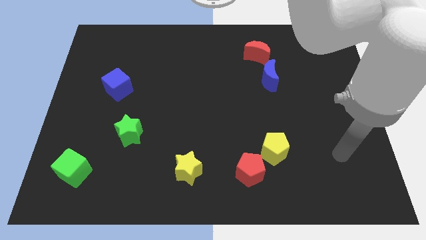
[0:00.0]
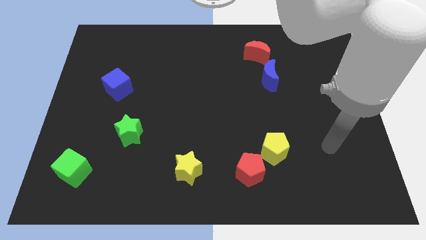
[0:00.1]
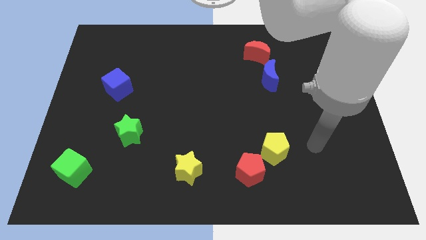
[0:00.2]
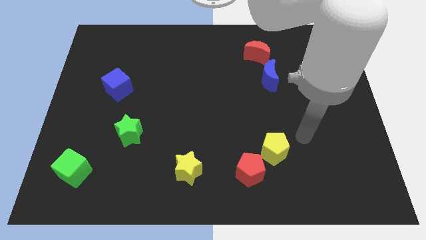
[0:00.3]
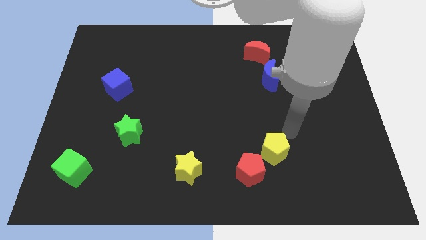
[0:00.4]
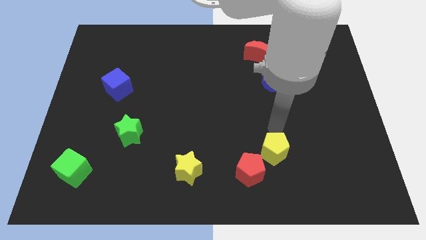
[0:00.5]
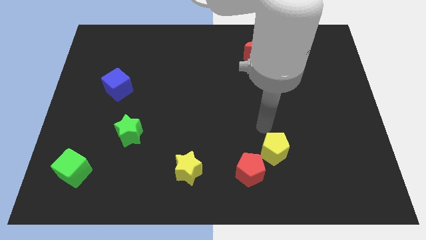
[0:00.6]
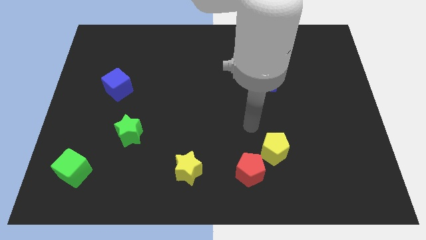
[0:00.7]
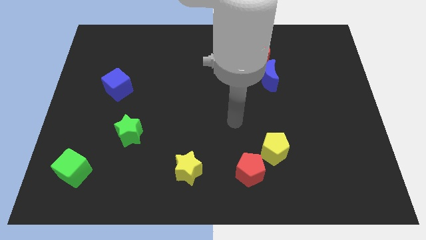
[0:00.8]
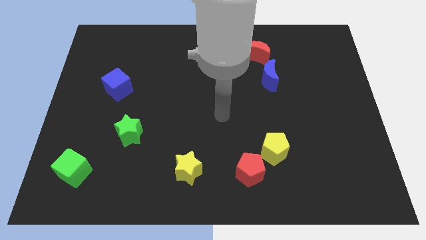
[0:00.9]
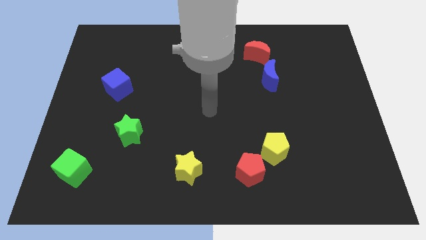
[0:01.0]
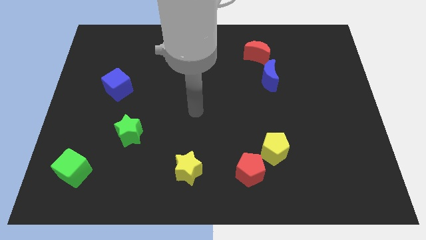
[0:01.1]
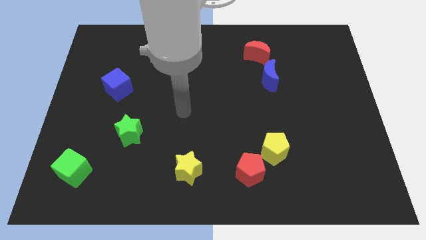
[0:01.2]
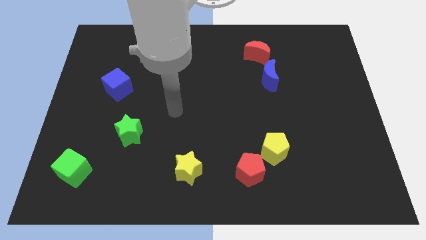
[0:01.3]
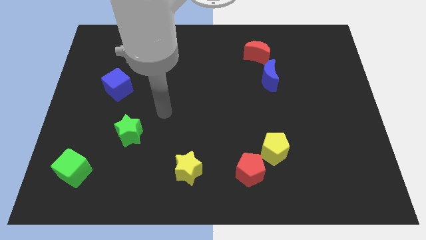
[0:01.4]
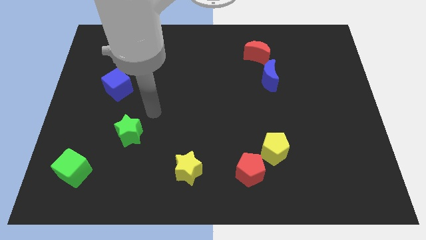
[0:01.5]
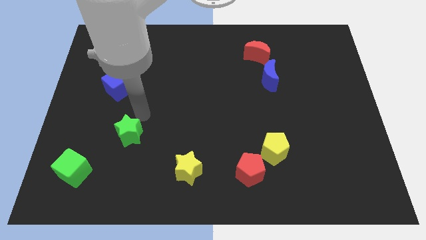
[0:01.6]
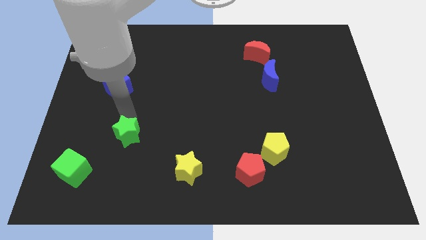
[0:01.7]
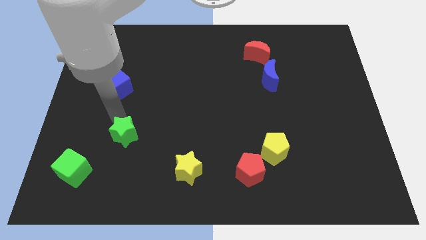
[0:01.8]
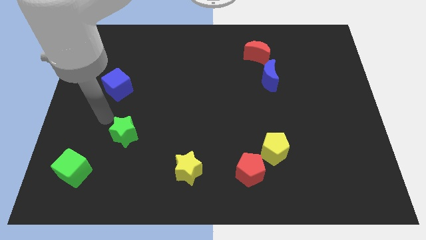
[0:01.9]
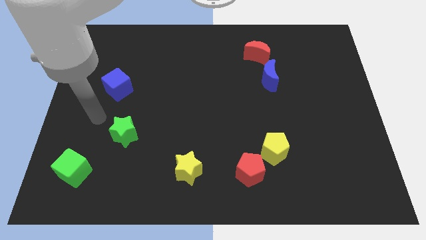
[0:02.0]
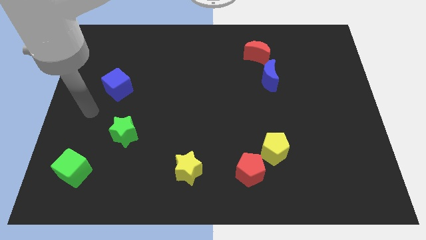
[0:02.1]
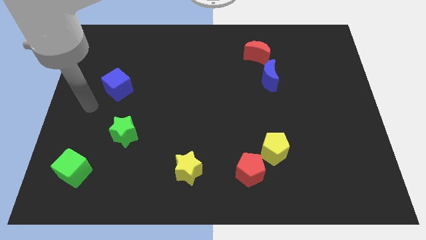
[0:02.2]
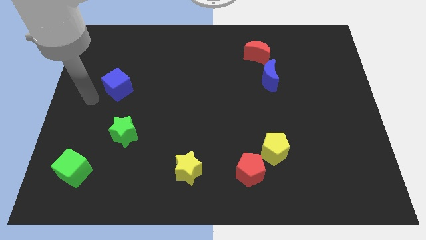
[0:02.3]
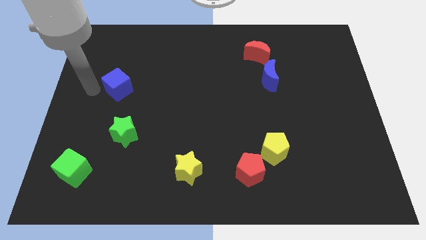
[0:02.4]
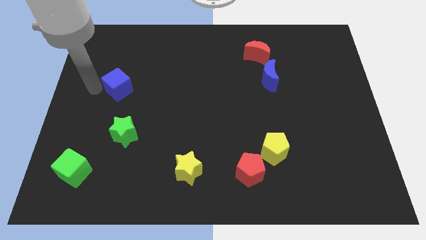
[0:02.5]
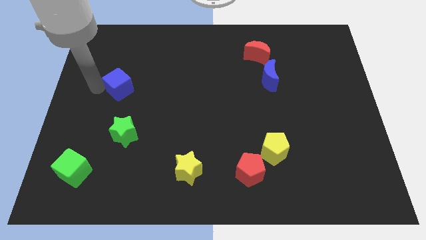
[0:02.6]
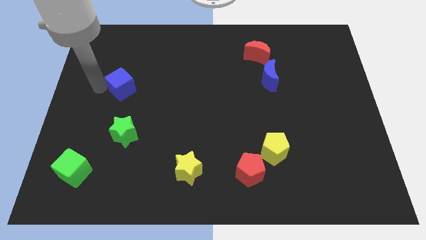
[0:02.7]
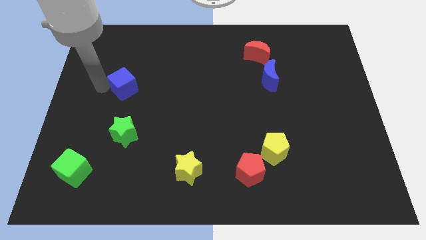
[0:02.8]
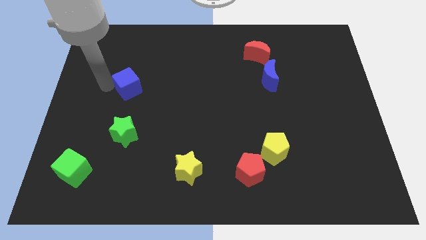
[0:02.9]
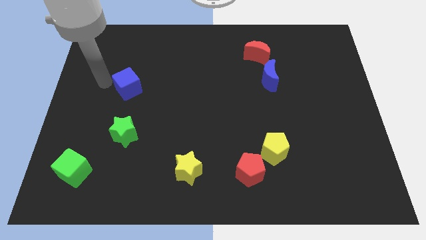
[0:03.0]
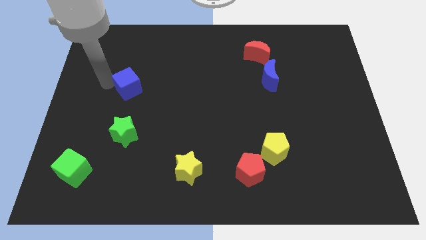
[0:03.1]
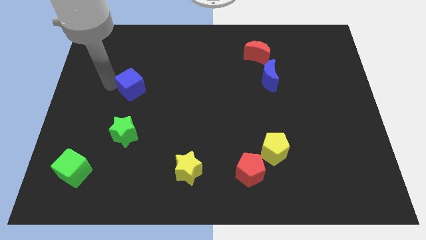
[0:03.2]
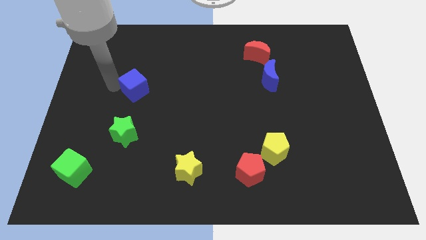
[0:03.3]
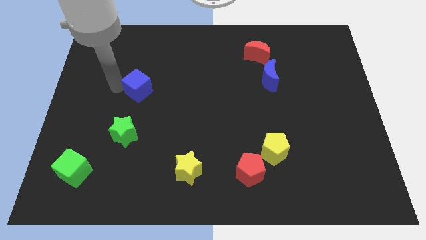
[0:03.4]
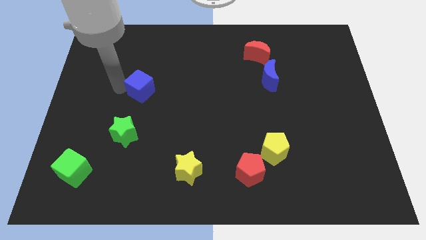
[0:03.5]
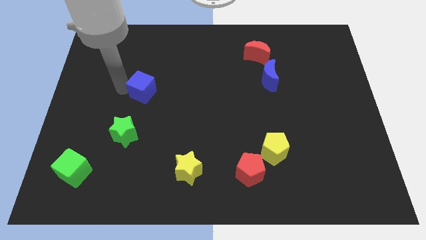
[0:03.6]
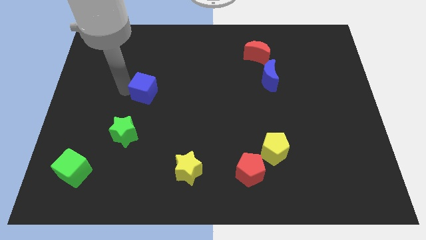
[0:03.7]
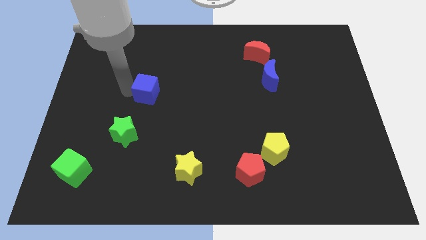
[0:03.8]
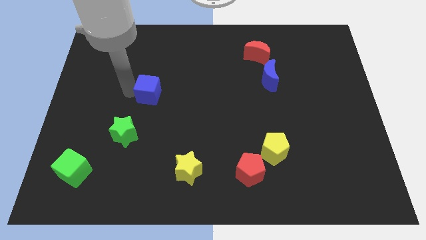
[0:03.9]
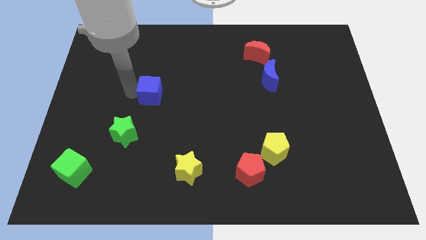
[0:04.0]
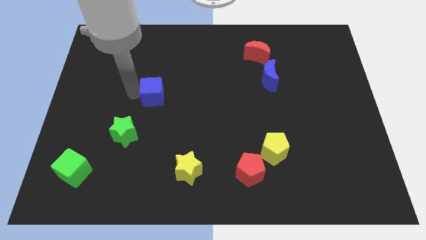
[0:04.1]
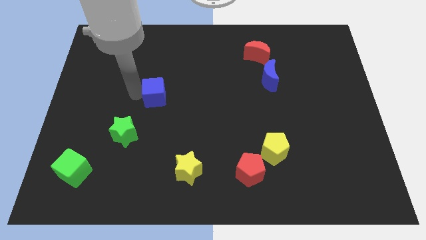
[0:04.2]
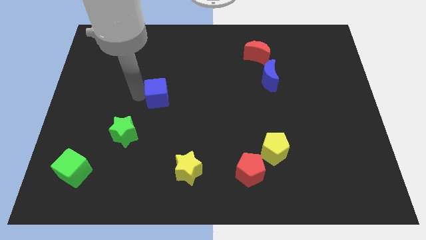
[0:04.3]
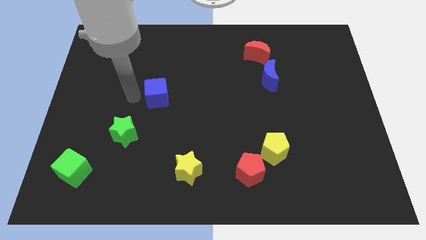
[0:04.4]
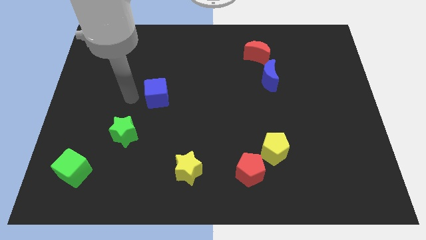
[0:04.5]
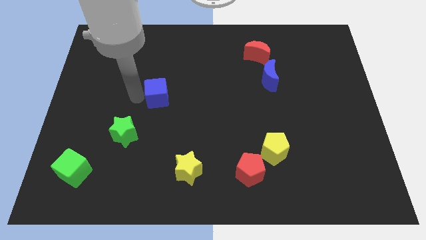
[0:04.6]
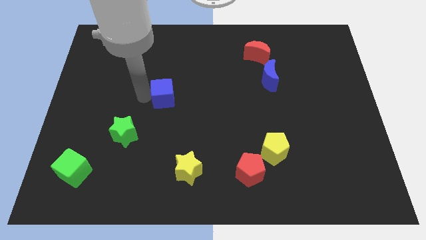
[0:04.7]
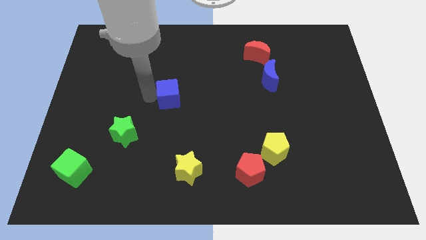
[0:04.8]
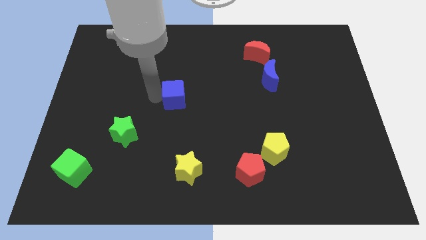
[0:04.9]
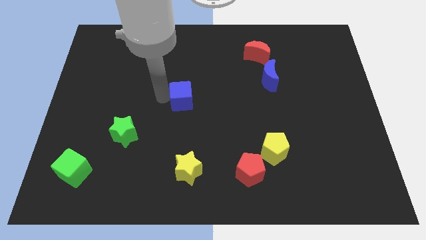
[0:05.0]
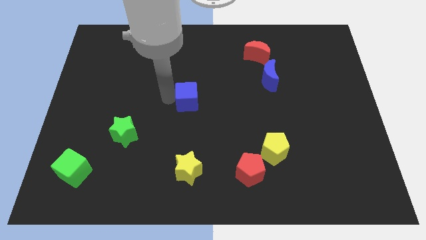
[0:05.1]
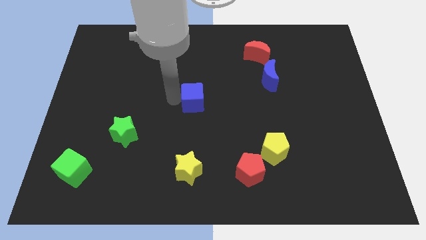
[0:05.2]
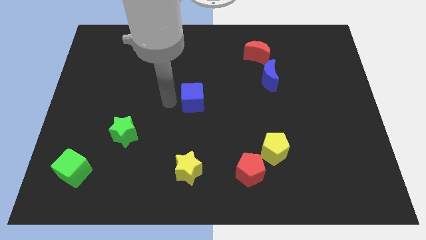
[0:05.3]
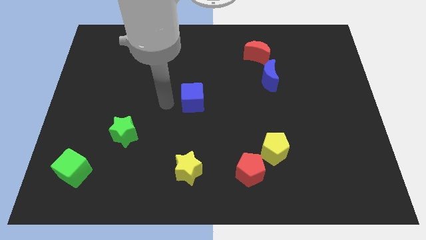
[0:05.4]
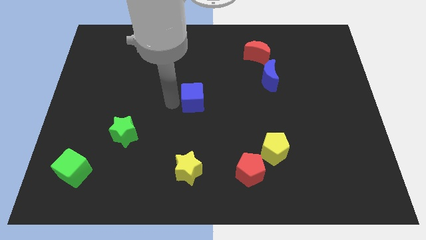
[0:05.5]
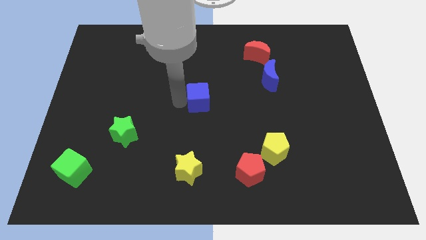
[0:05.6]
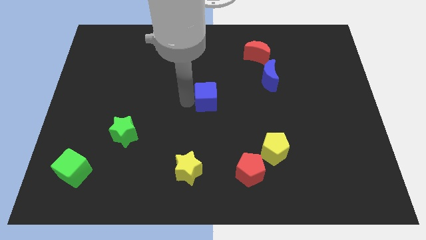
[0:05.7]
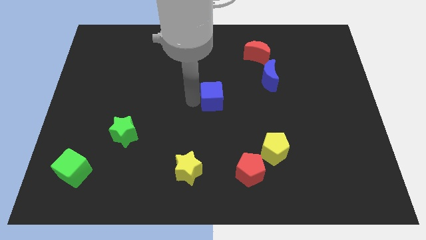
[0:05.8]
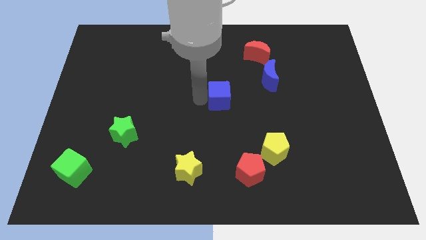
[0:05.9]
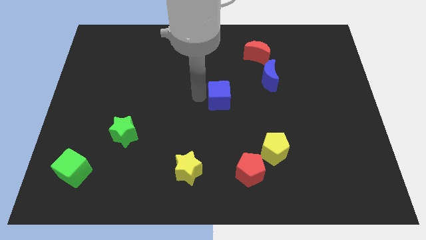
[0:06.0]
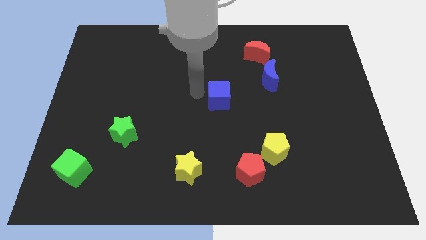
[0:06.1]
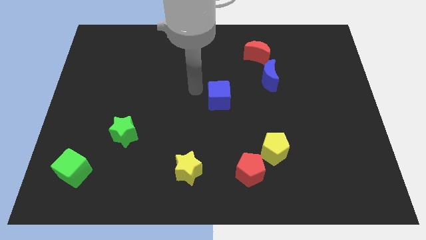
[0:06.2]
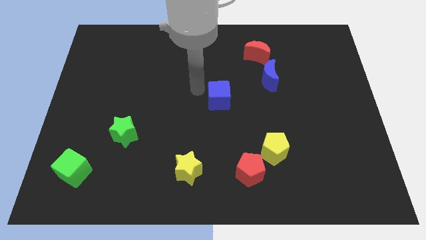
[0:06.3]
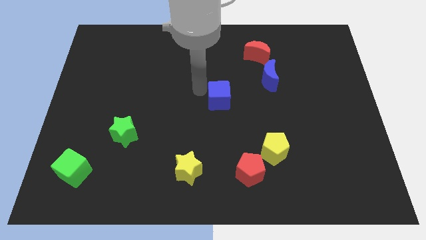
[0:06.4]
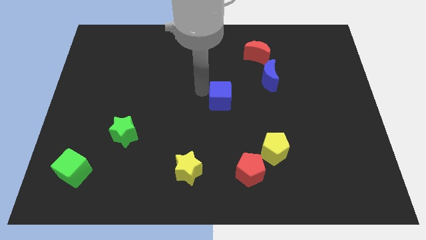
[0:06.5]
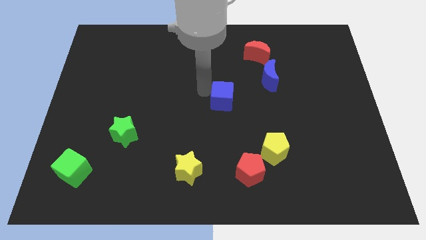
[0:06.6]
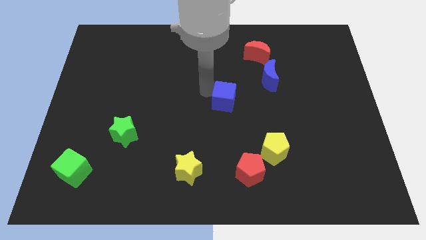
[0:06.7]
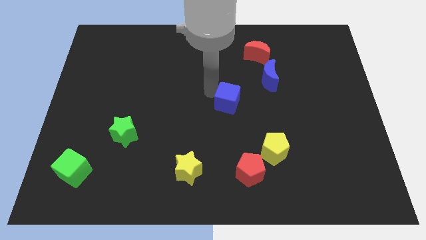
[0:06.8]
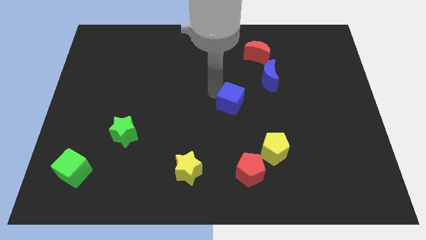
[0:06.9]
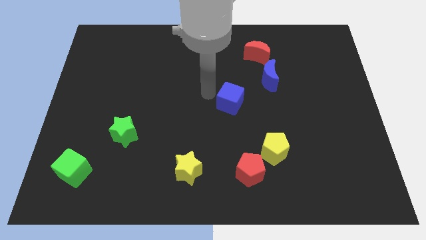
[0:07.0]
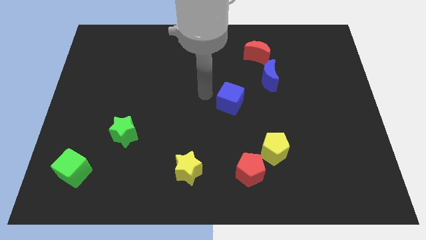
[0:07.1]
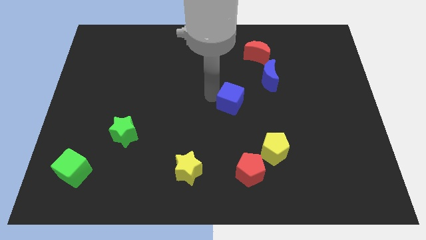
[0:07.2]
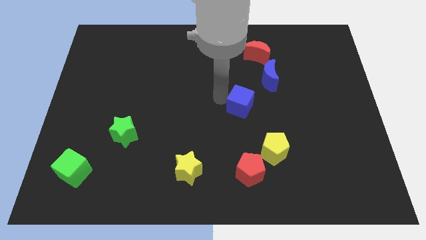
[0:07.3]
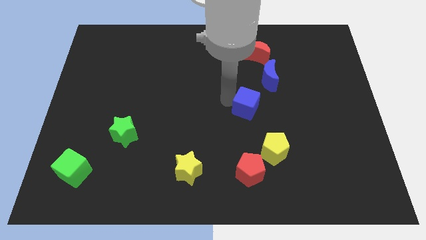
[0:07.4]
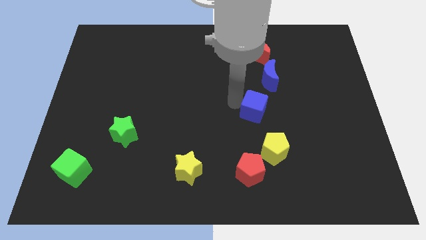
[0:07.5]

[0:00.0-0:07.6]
push the blue cube to the top of the yellow pentagon
